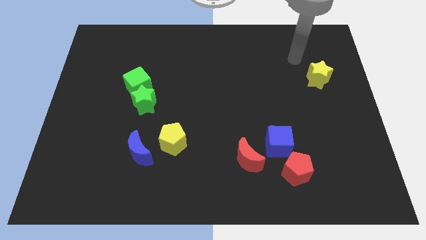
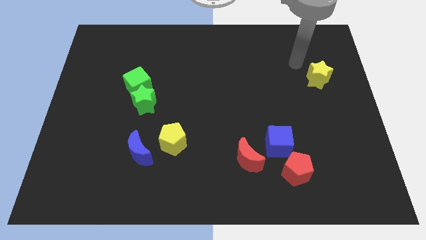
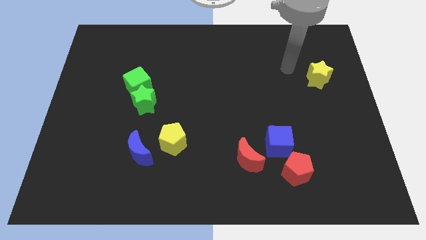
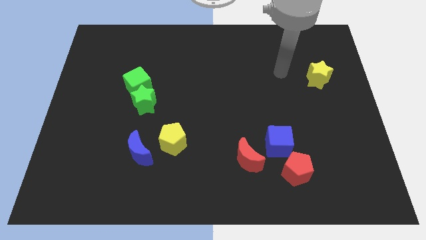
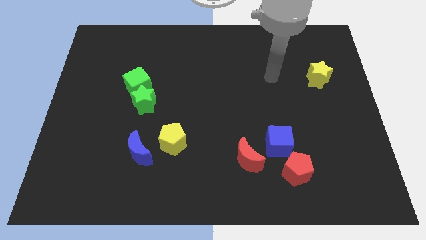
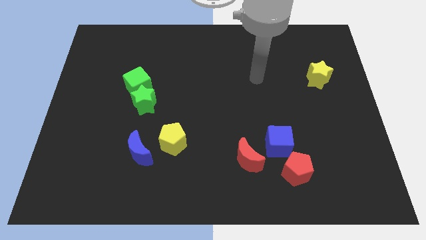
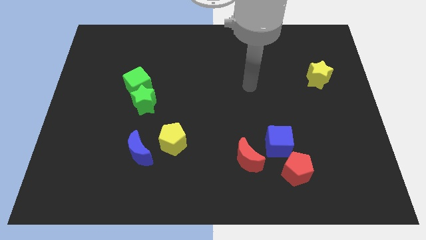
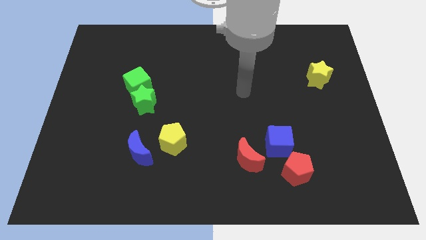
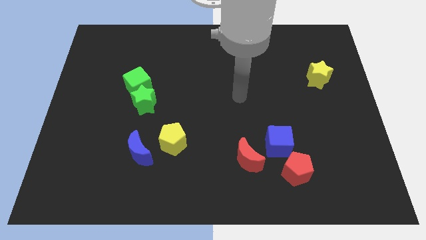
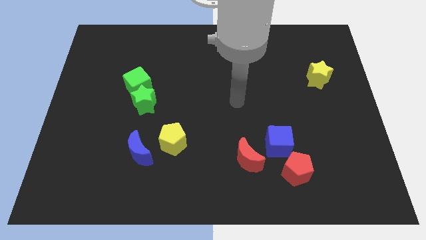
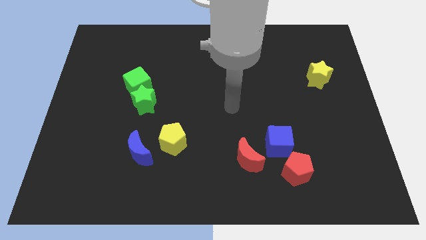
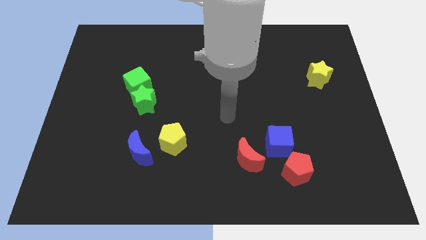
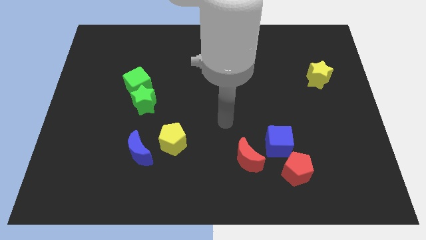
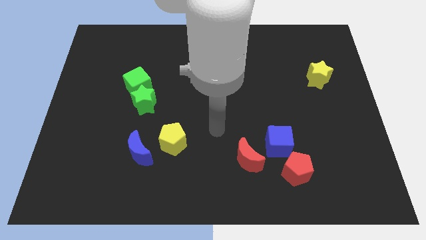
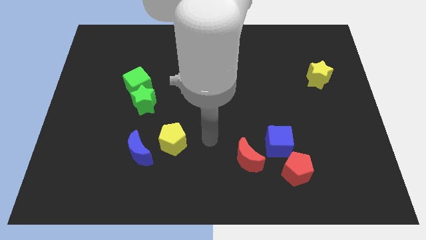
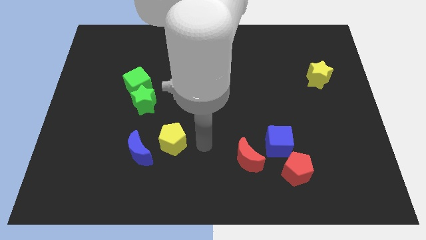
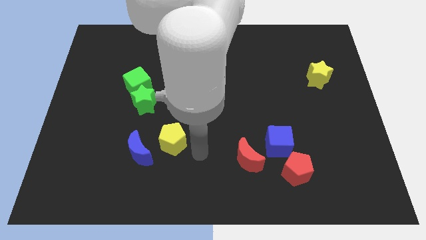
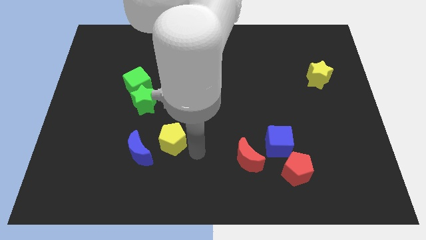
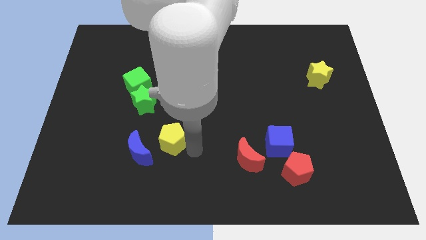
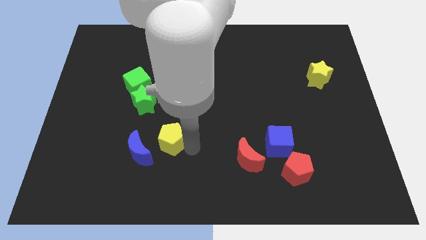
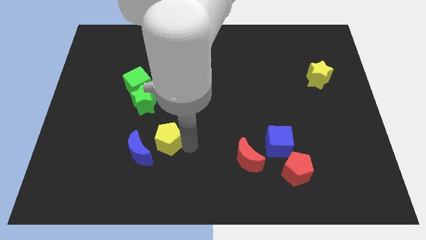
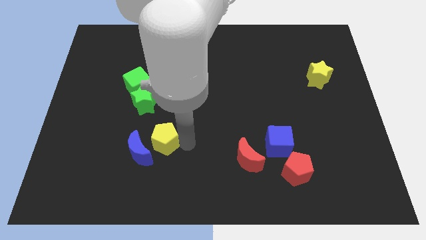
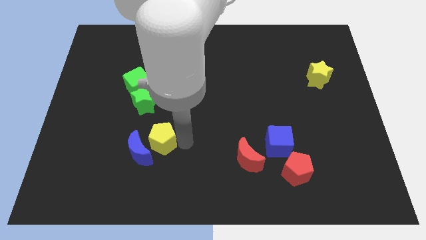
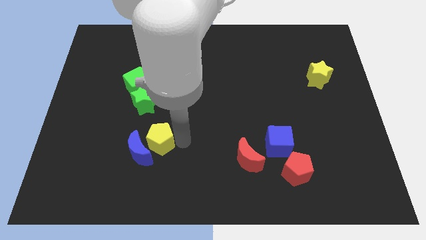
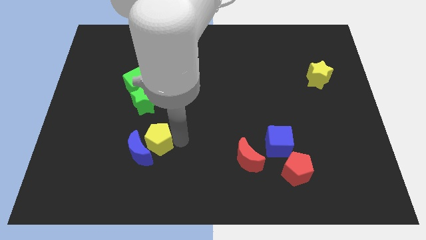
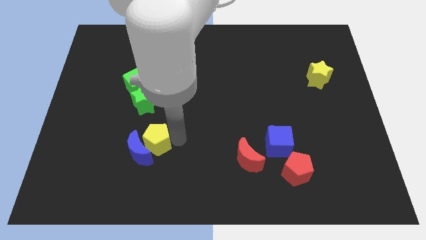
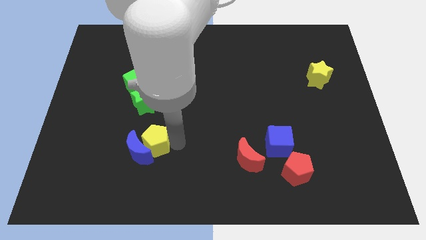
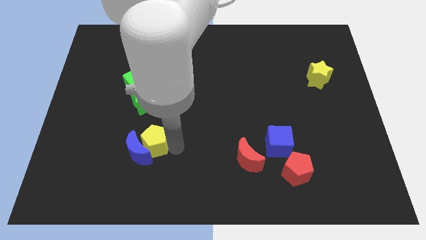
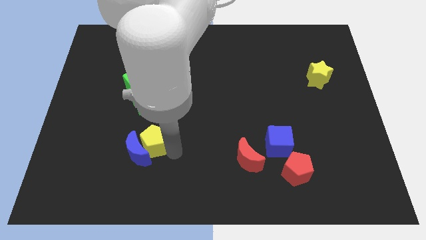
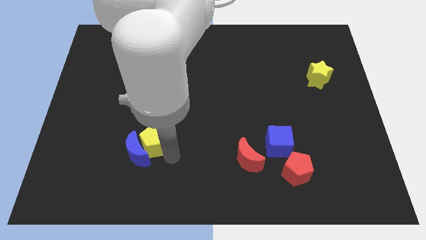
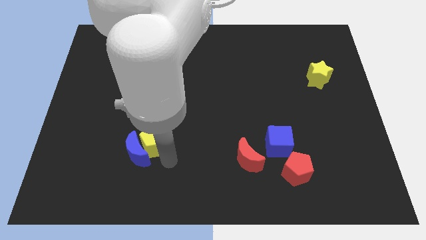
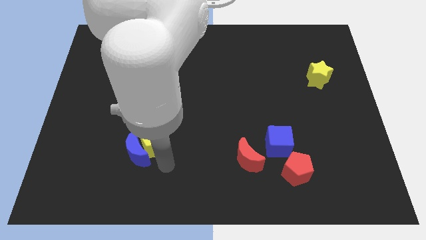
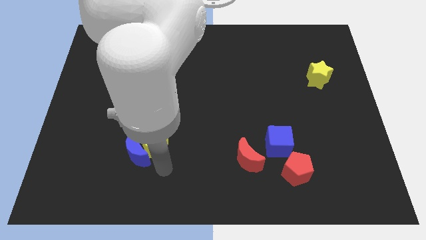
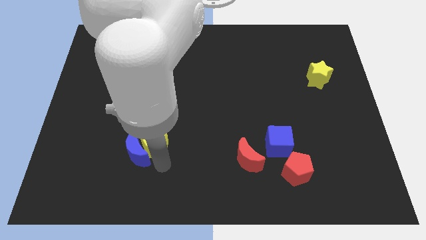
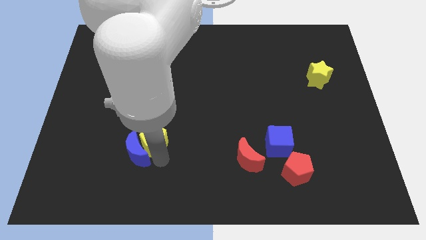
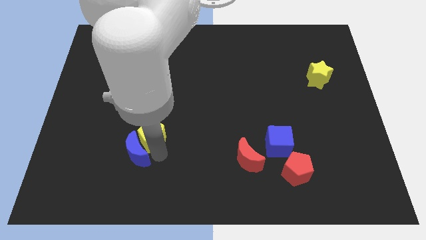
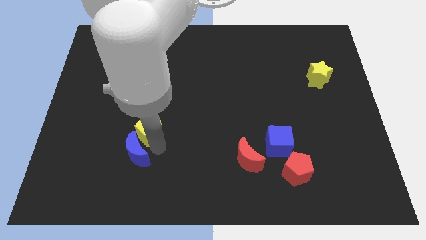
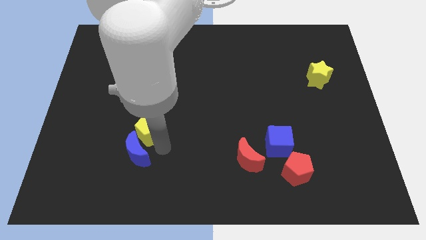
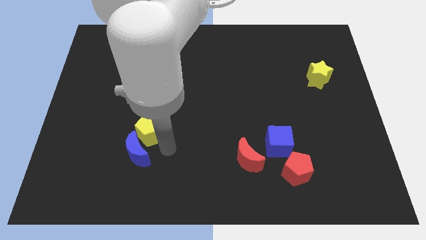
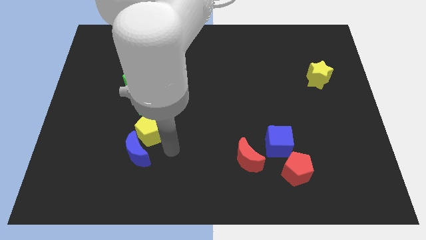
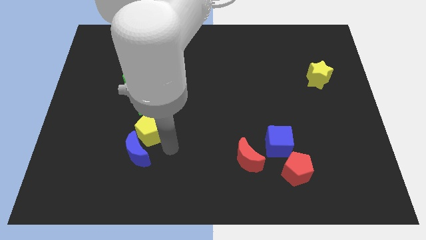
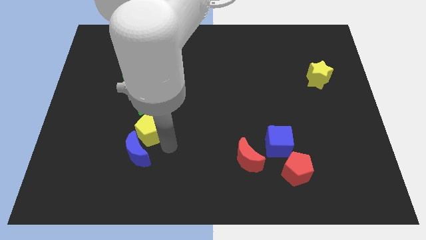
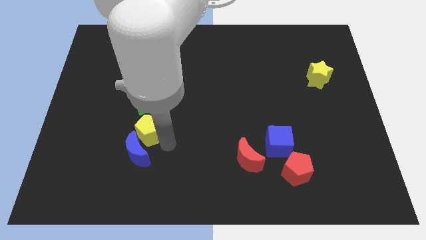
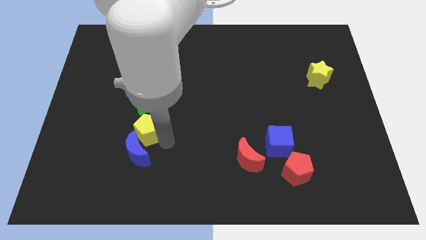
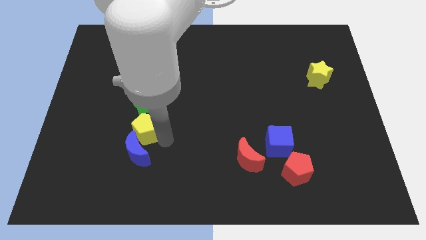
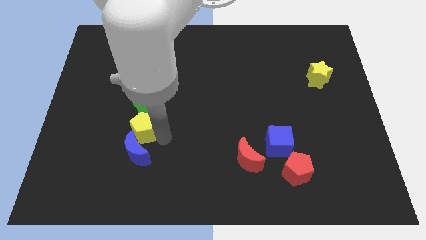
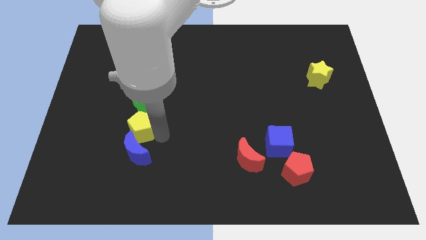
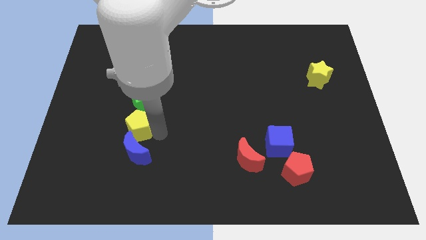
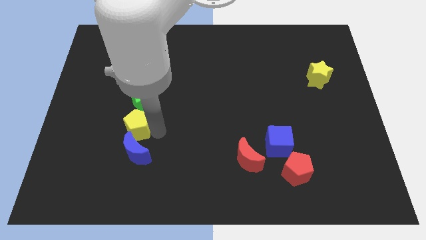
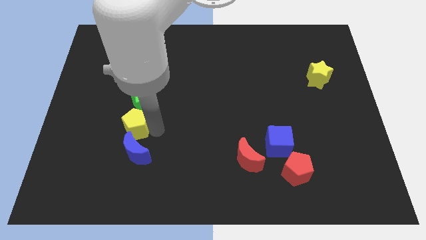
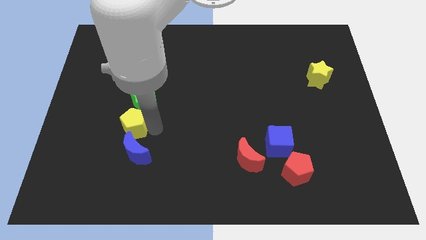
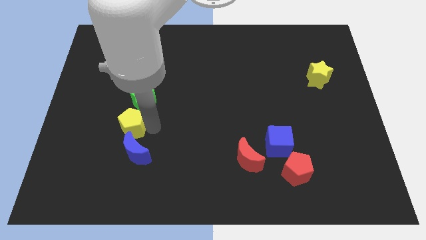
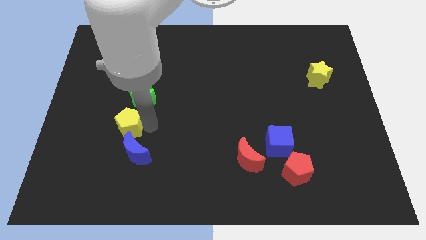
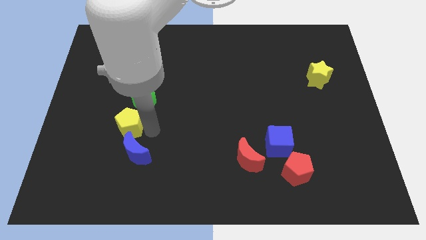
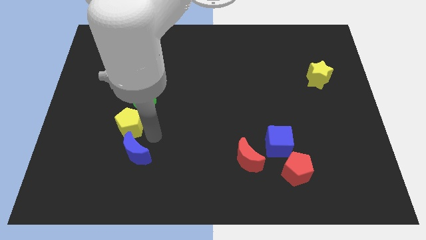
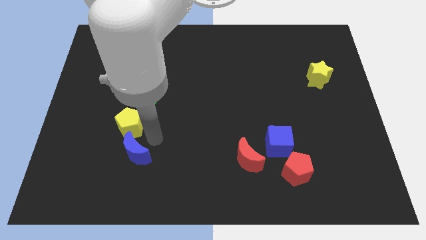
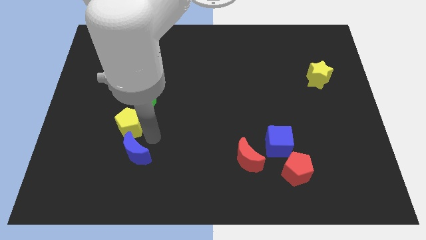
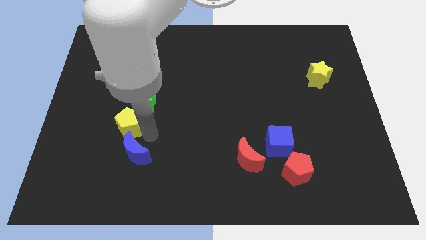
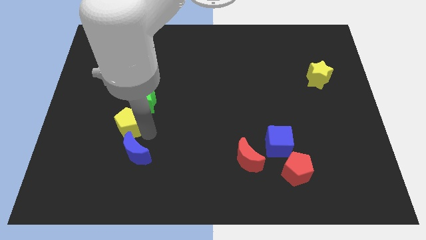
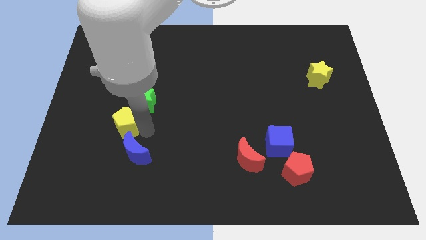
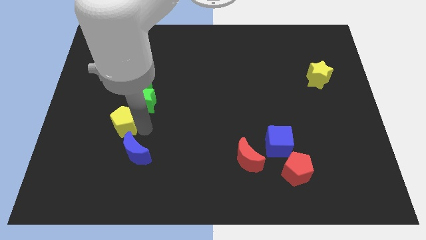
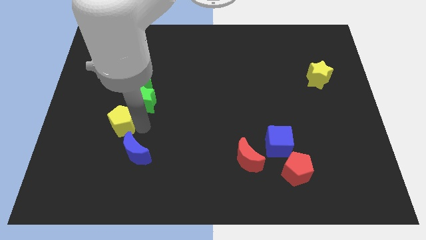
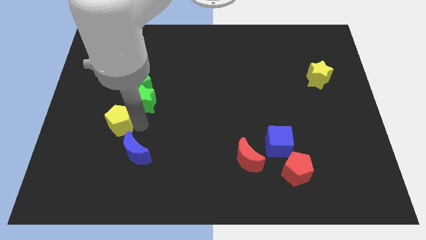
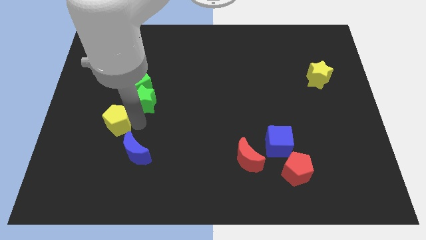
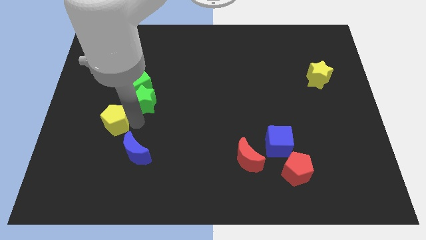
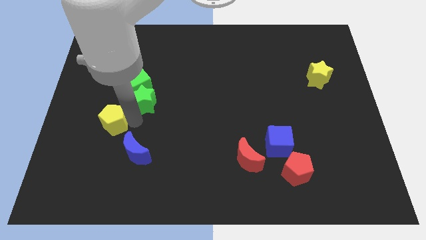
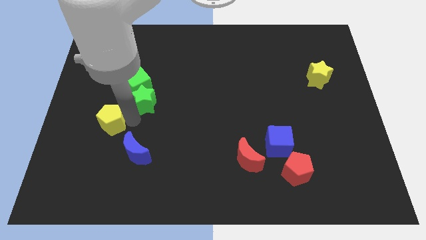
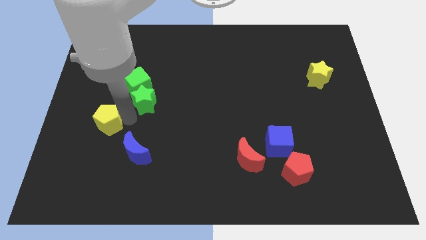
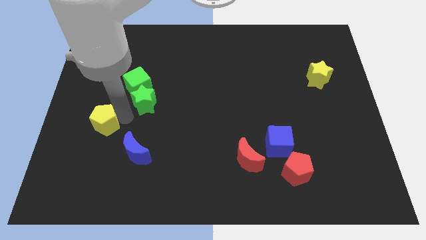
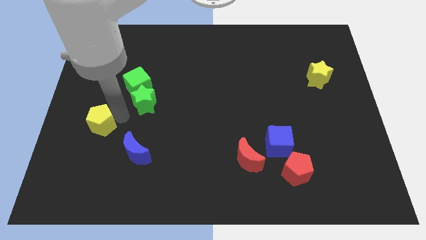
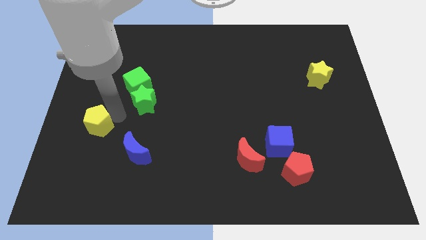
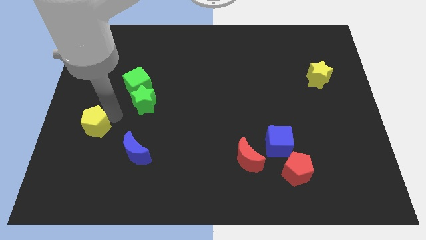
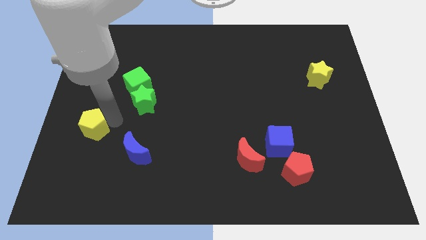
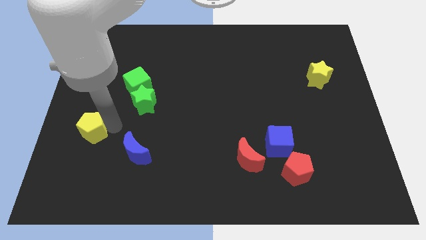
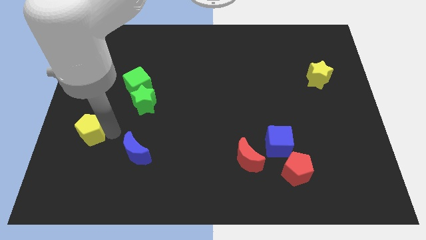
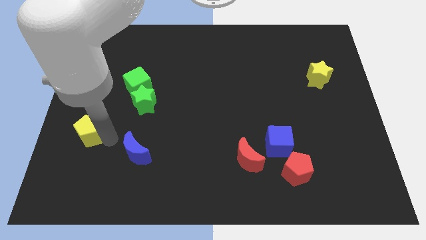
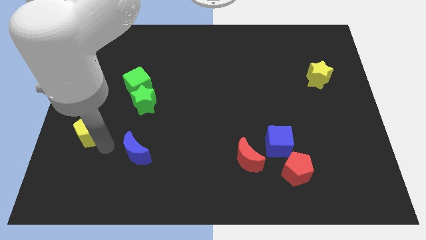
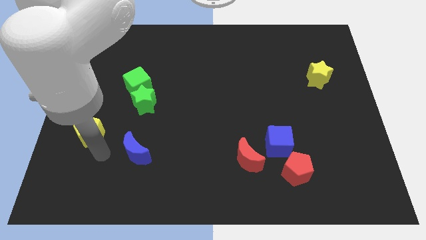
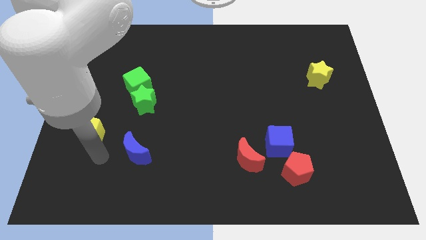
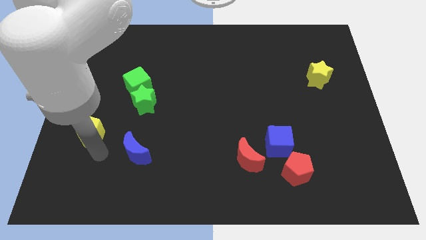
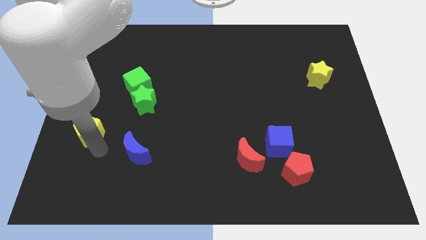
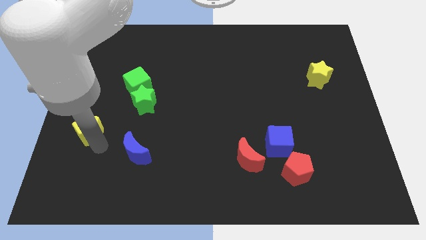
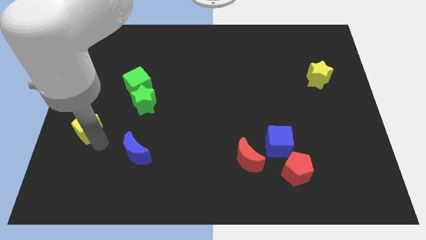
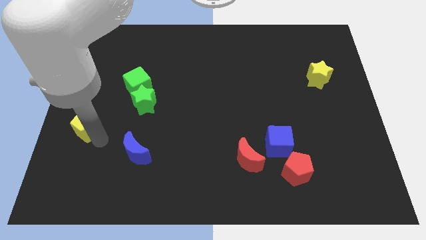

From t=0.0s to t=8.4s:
slide the yellow pentagon to the left side of the board
